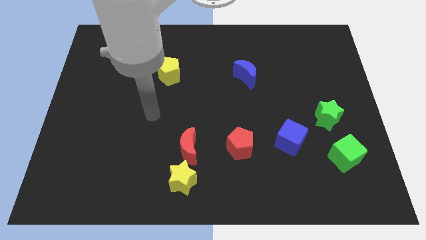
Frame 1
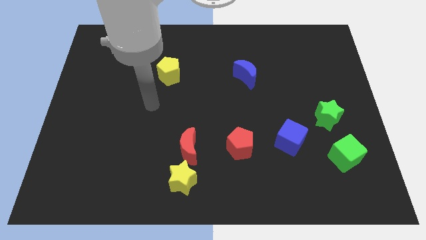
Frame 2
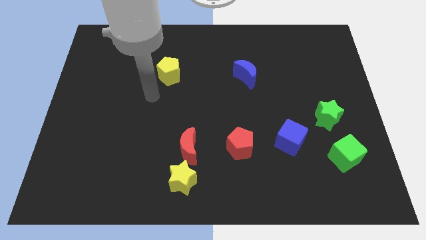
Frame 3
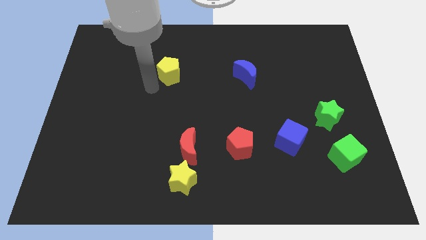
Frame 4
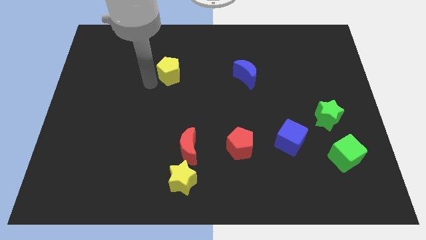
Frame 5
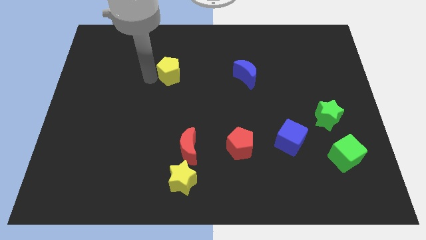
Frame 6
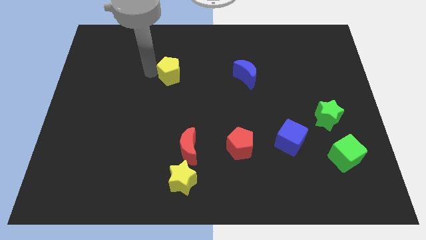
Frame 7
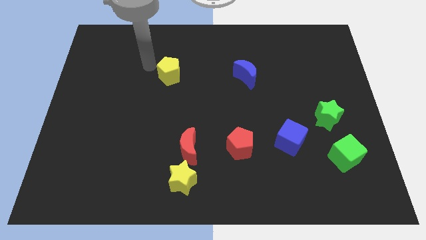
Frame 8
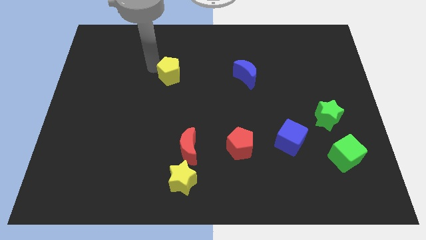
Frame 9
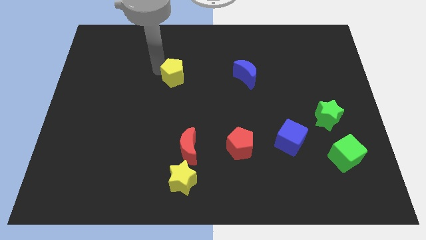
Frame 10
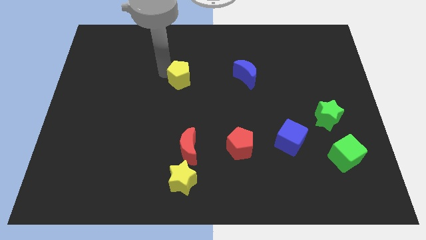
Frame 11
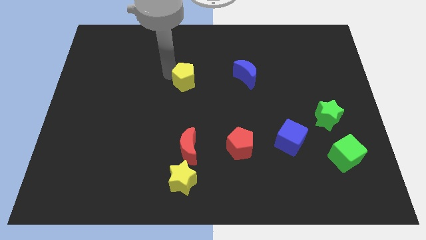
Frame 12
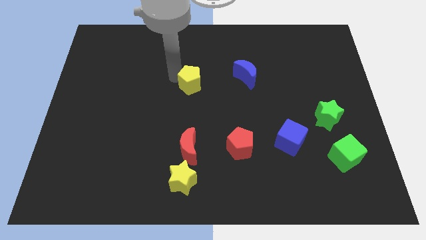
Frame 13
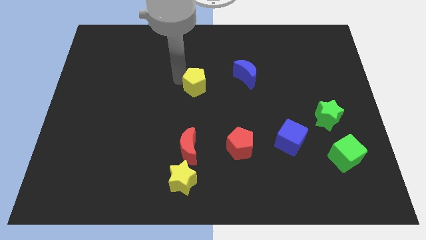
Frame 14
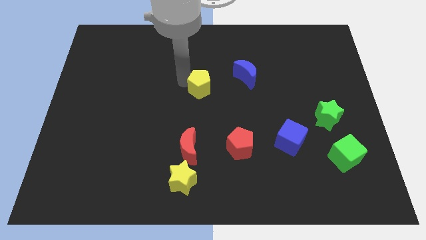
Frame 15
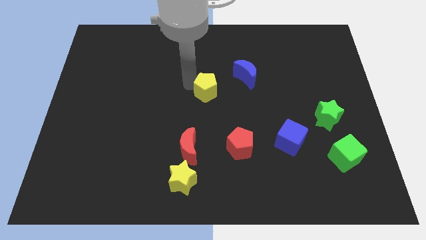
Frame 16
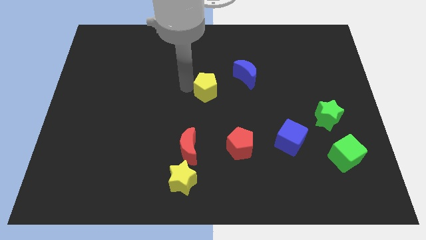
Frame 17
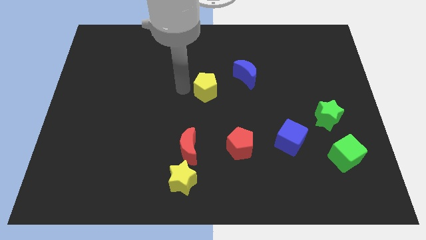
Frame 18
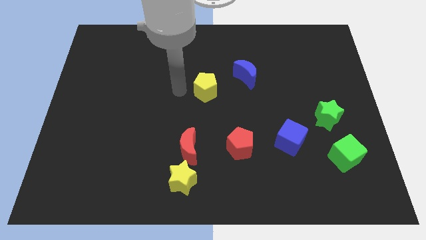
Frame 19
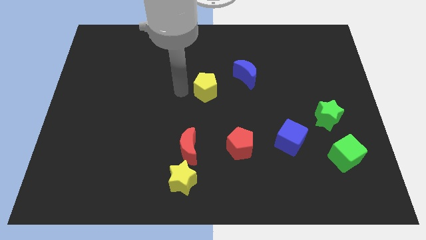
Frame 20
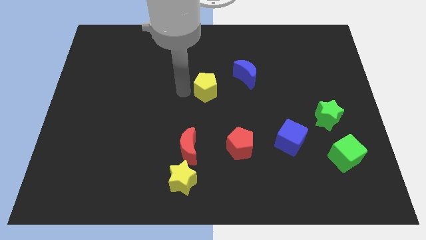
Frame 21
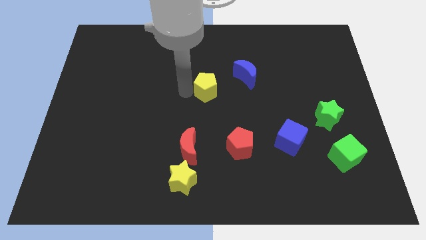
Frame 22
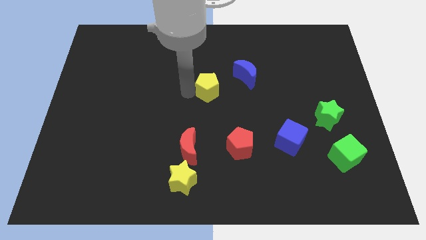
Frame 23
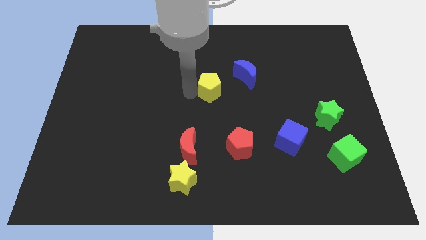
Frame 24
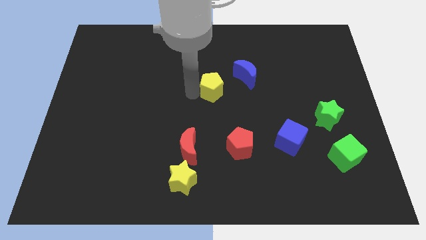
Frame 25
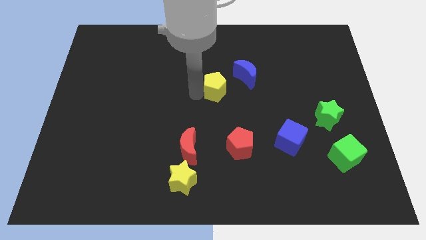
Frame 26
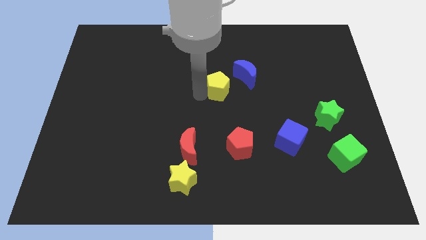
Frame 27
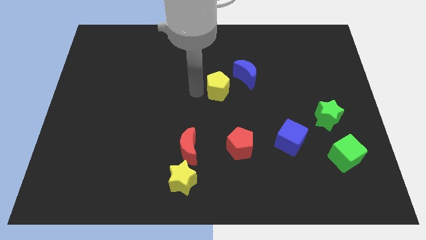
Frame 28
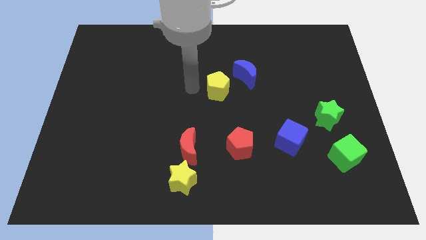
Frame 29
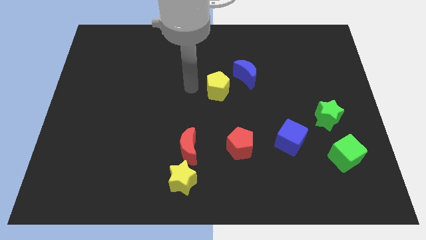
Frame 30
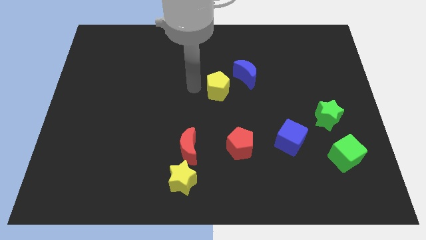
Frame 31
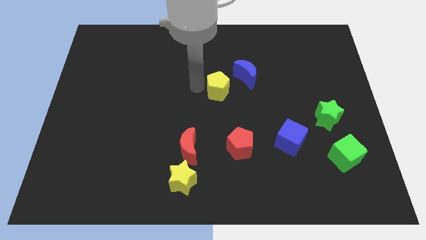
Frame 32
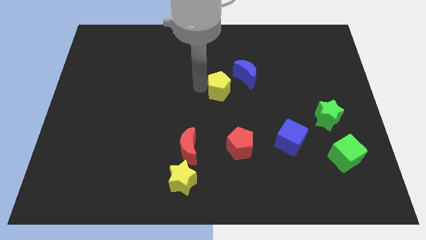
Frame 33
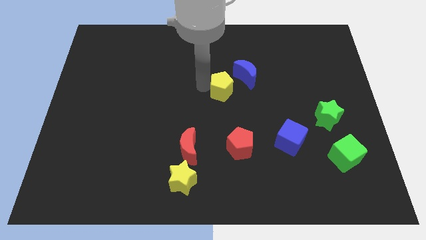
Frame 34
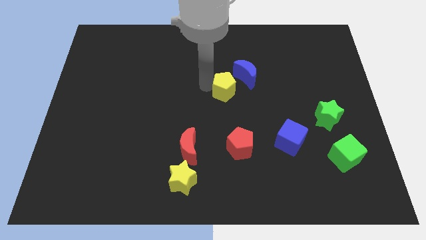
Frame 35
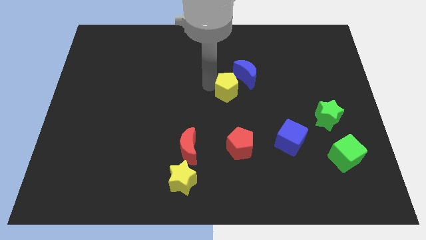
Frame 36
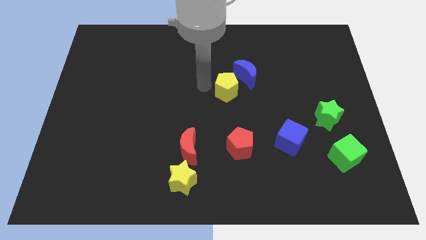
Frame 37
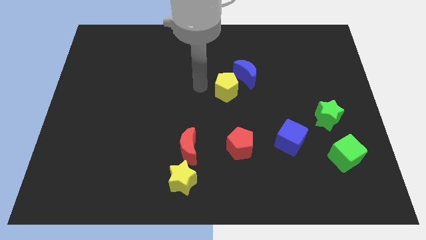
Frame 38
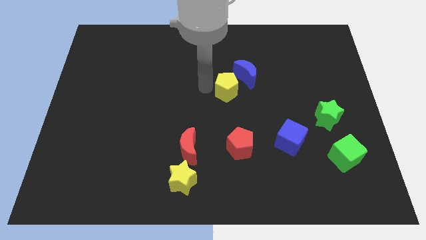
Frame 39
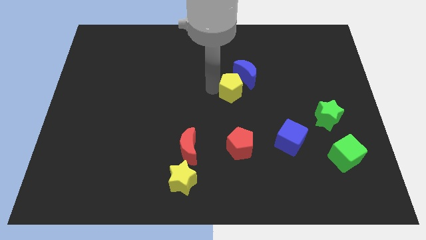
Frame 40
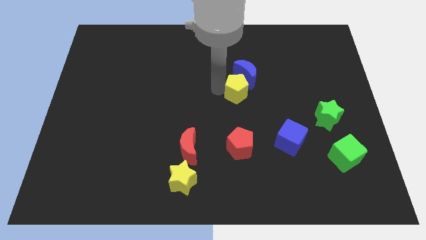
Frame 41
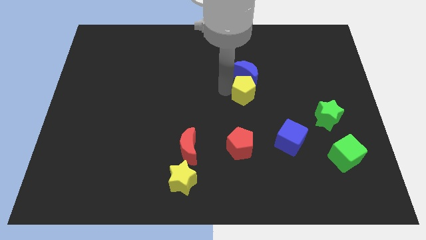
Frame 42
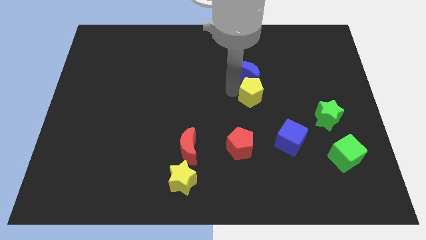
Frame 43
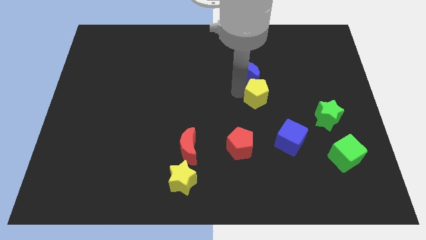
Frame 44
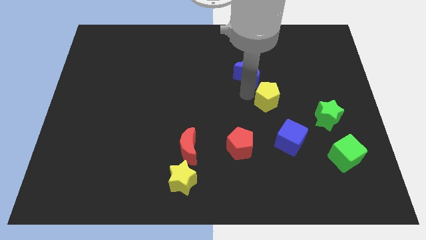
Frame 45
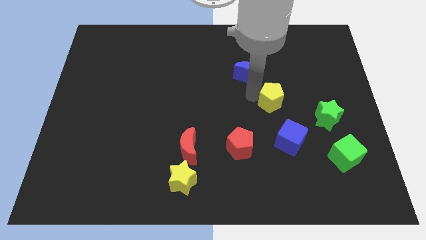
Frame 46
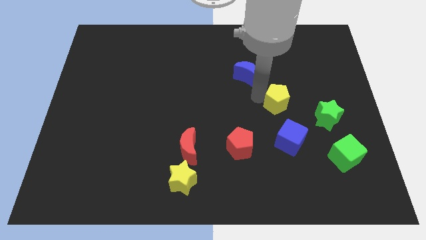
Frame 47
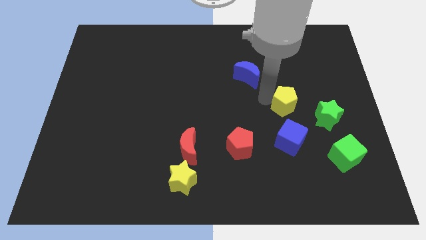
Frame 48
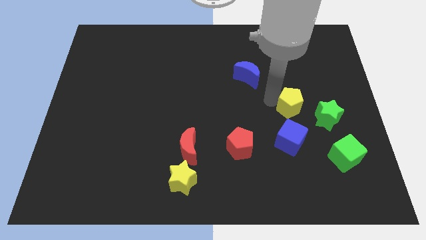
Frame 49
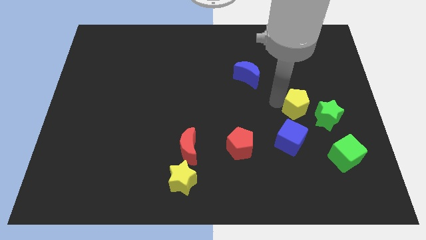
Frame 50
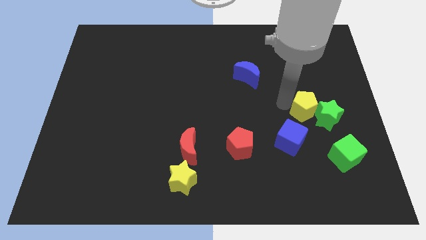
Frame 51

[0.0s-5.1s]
move the yellow pentagon close to the green star

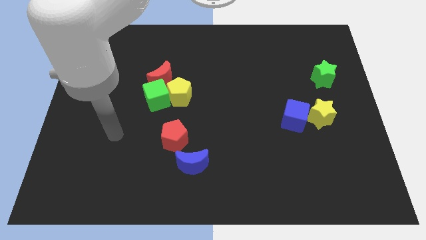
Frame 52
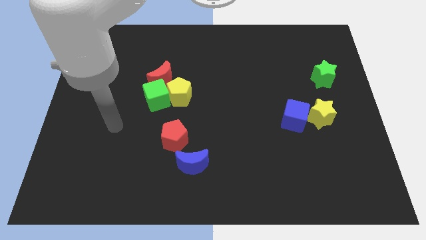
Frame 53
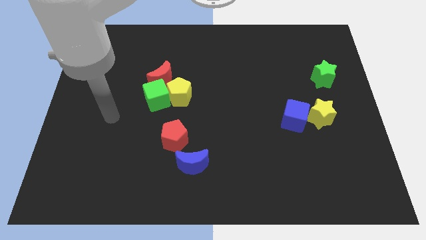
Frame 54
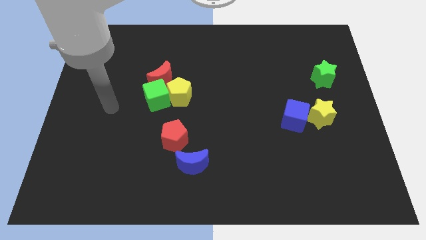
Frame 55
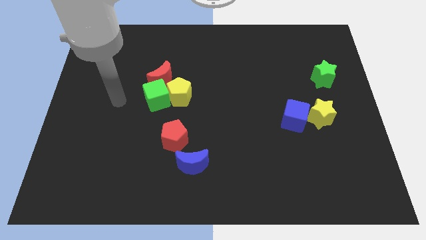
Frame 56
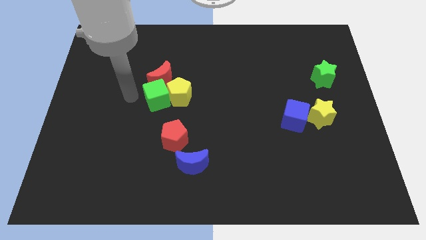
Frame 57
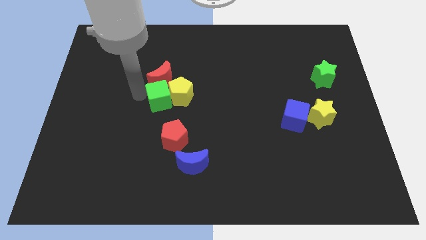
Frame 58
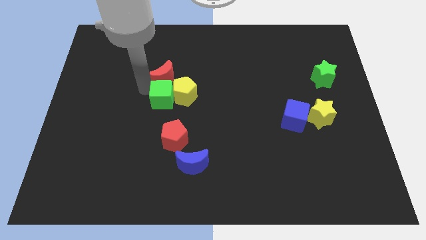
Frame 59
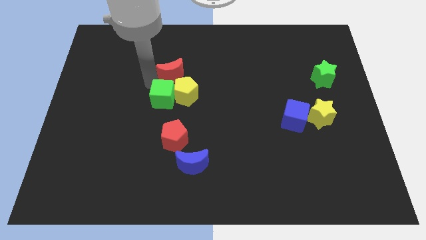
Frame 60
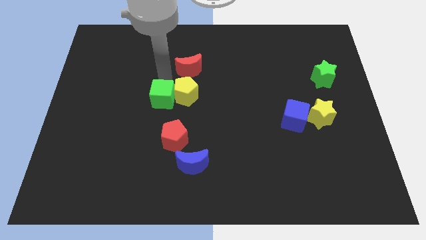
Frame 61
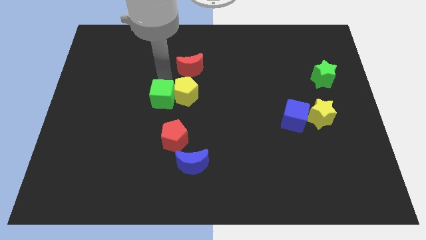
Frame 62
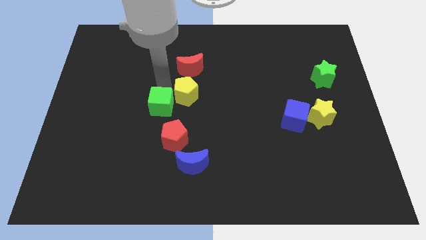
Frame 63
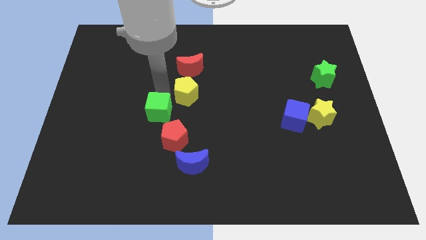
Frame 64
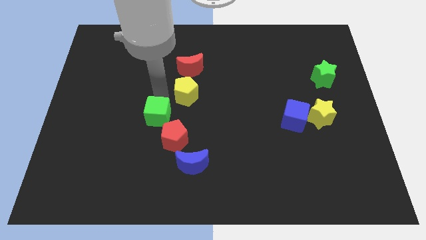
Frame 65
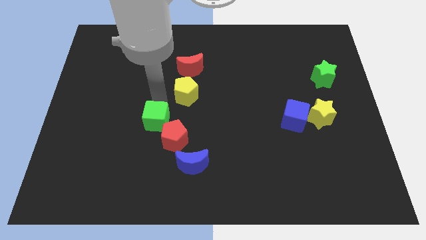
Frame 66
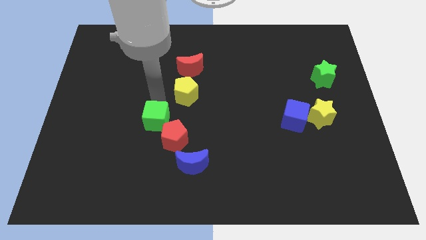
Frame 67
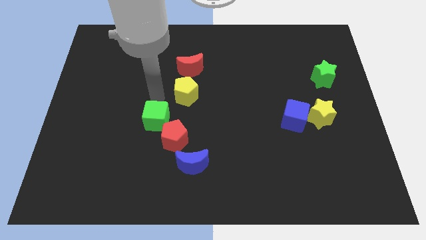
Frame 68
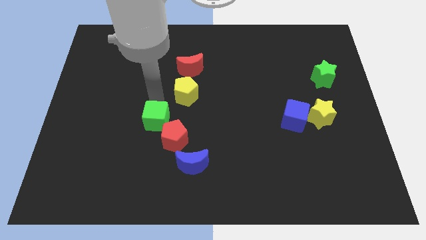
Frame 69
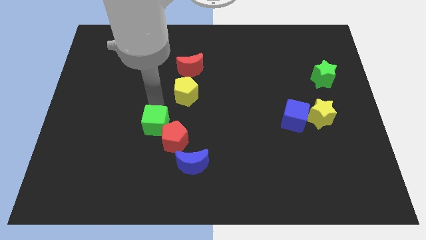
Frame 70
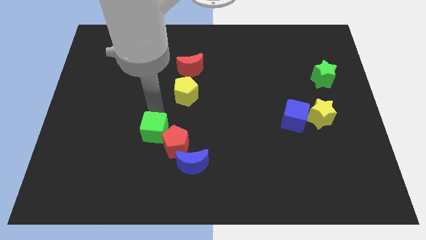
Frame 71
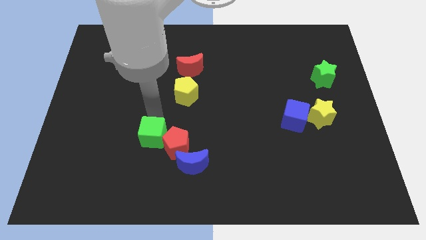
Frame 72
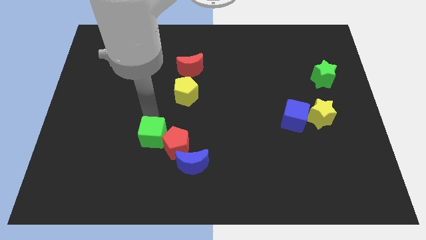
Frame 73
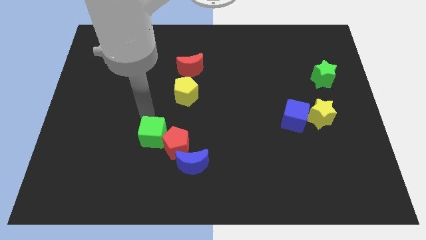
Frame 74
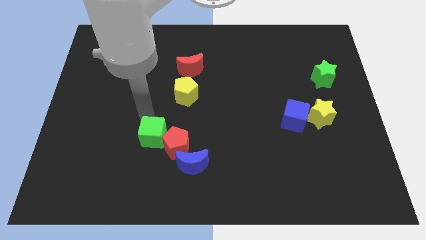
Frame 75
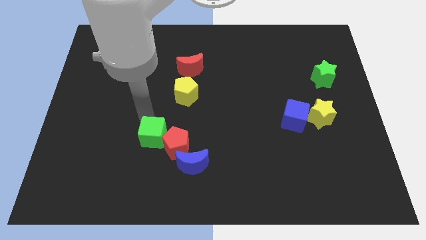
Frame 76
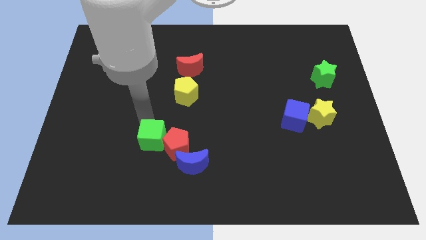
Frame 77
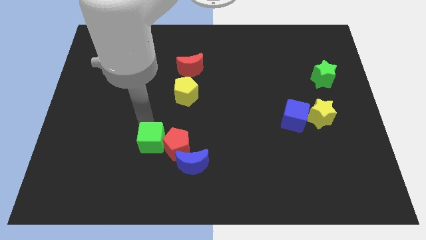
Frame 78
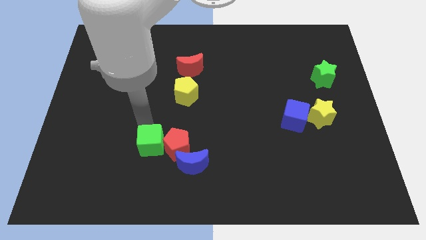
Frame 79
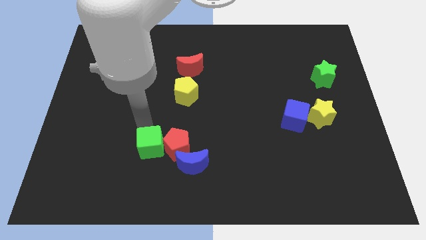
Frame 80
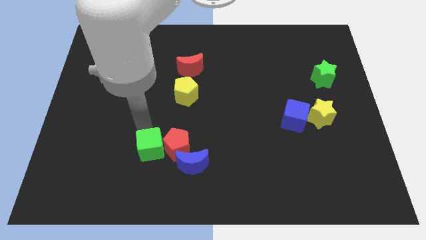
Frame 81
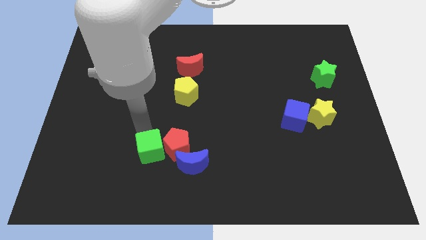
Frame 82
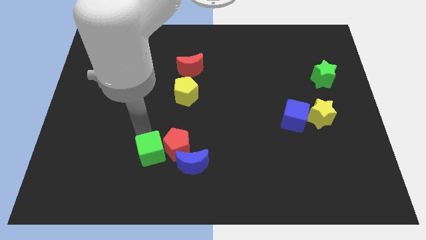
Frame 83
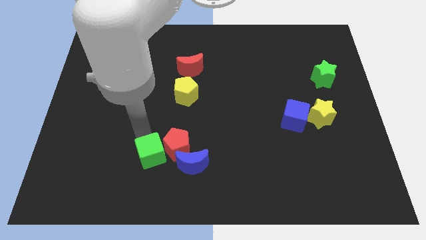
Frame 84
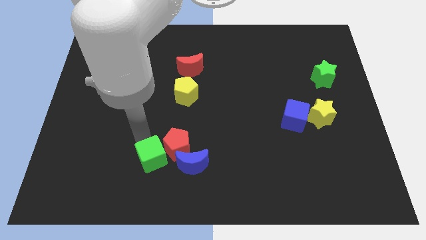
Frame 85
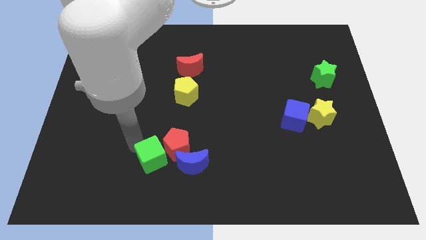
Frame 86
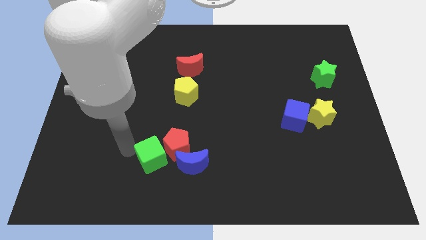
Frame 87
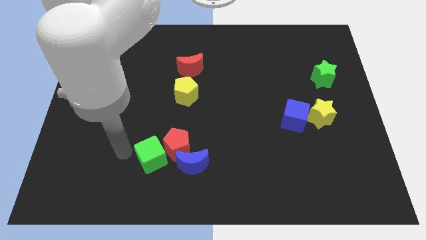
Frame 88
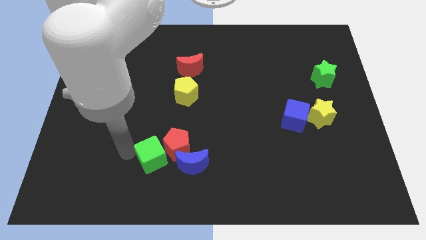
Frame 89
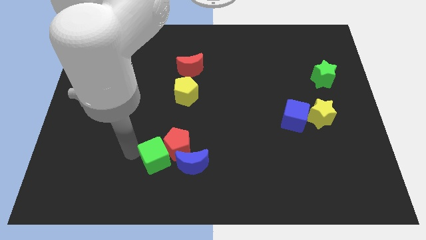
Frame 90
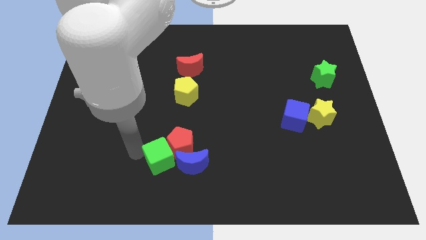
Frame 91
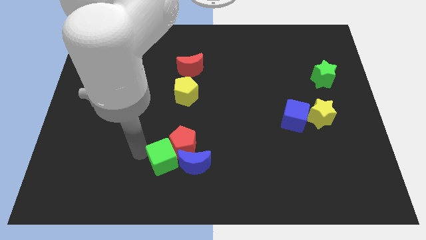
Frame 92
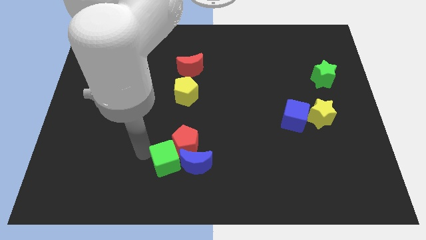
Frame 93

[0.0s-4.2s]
put the green cube next to the blue moon
